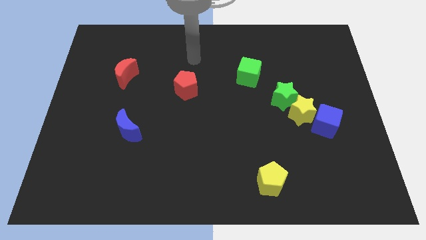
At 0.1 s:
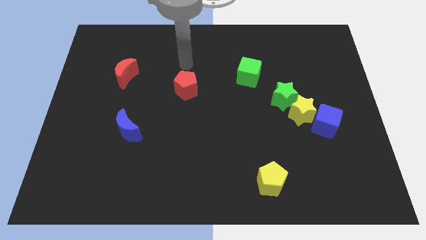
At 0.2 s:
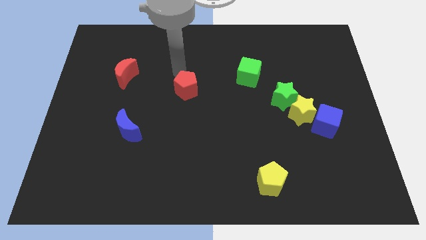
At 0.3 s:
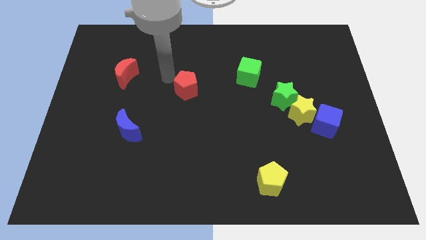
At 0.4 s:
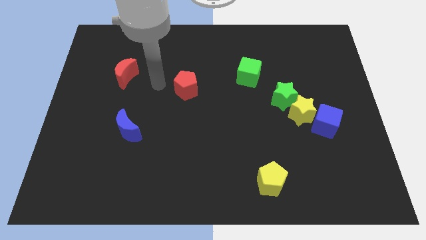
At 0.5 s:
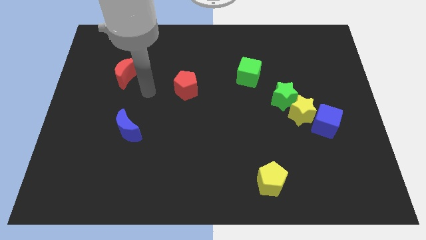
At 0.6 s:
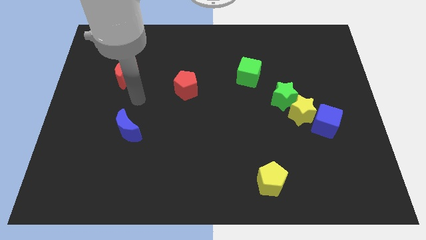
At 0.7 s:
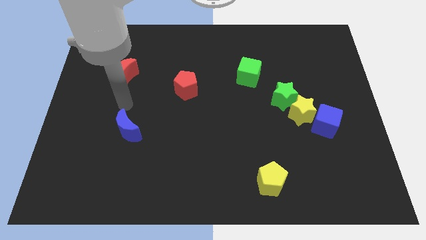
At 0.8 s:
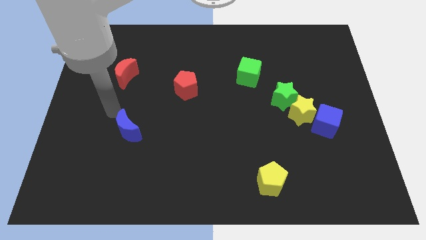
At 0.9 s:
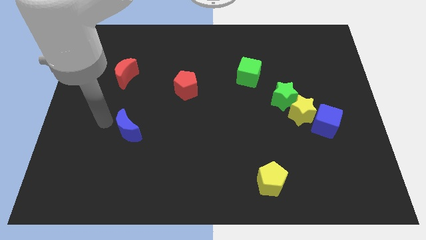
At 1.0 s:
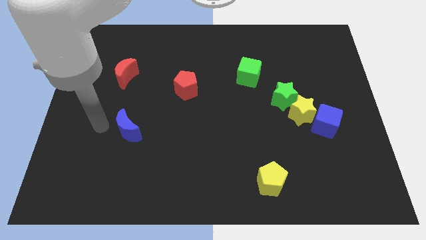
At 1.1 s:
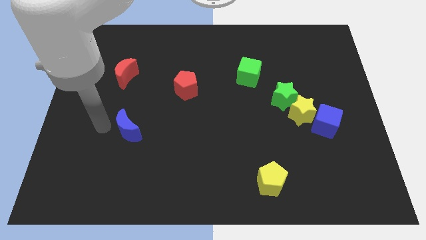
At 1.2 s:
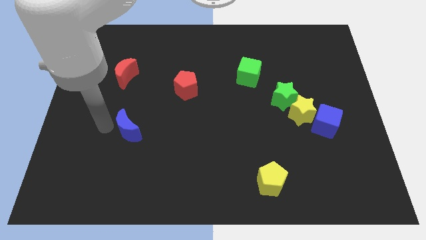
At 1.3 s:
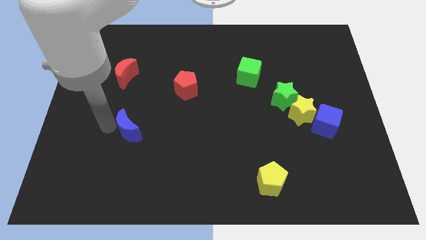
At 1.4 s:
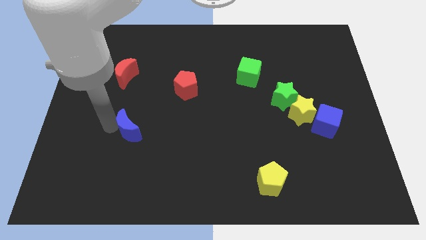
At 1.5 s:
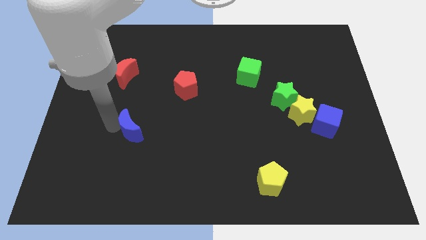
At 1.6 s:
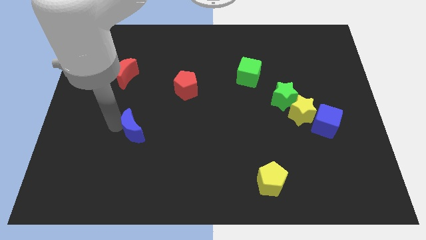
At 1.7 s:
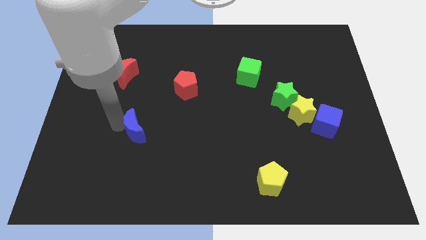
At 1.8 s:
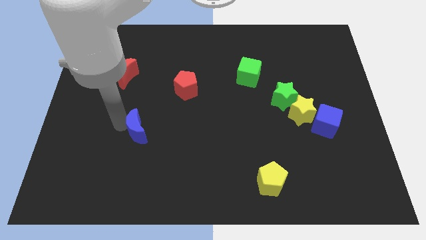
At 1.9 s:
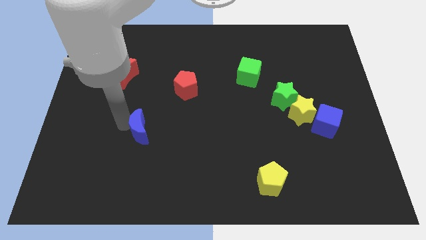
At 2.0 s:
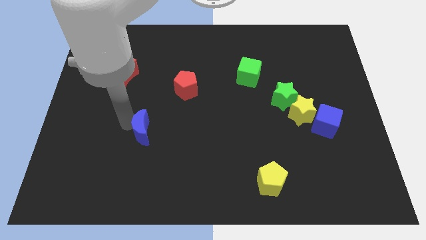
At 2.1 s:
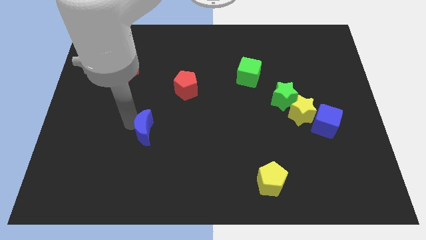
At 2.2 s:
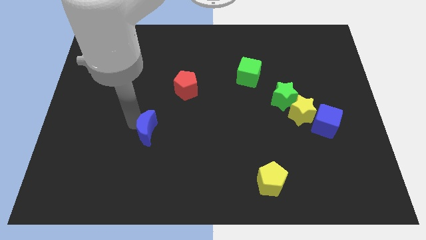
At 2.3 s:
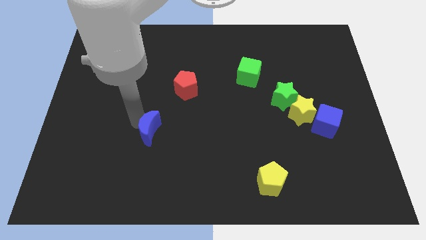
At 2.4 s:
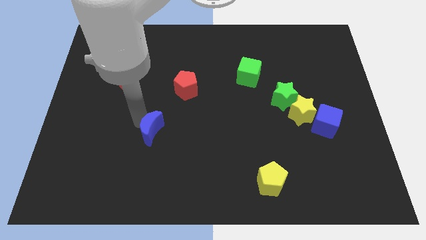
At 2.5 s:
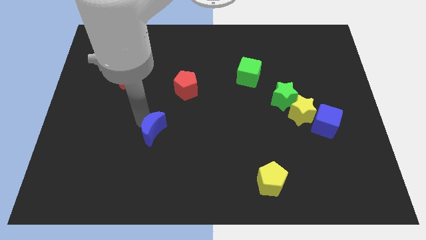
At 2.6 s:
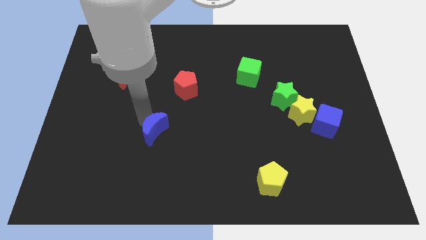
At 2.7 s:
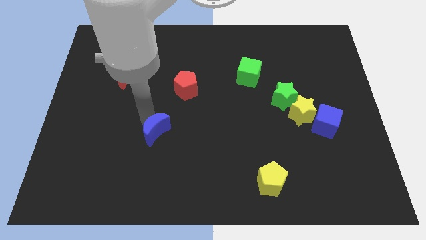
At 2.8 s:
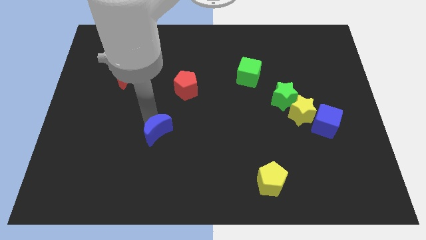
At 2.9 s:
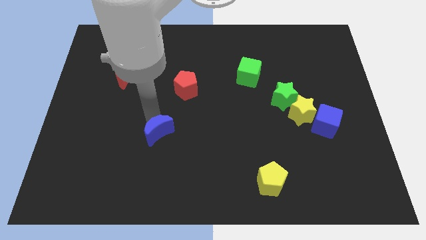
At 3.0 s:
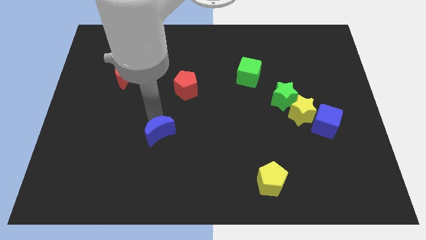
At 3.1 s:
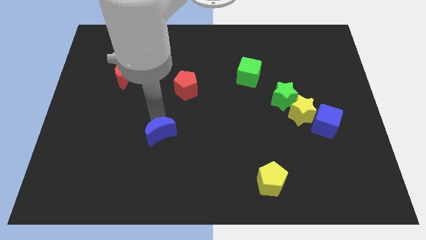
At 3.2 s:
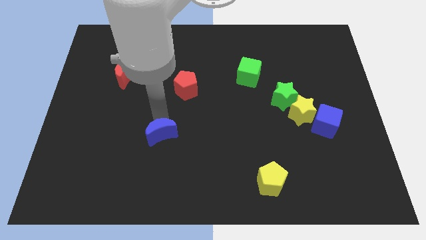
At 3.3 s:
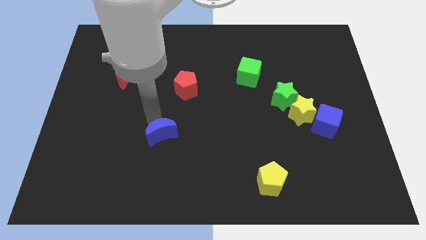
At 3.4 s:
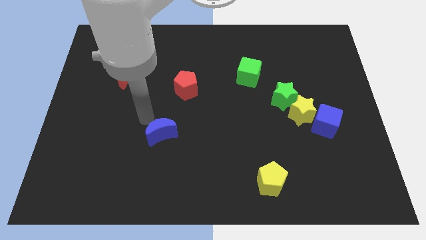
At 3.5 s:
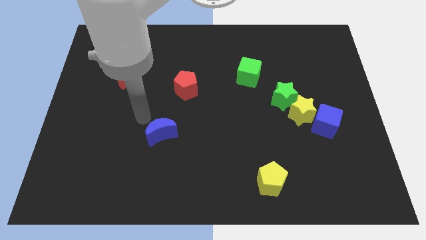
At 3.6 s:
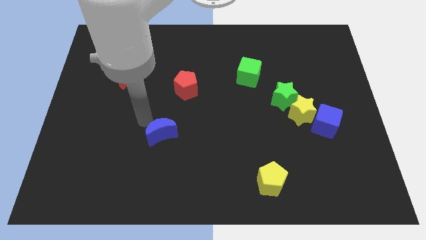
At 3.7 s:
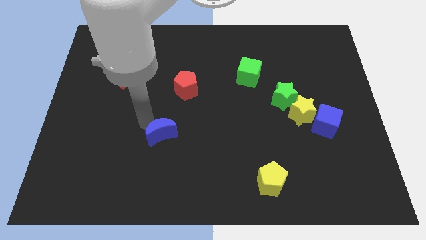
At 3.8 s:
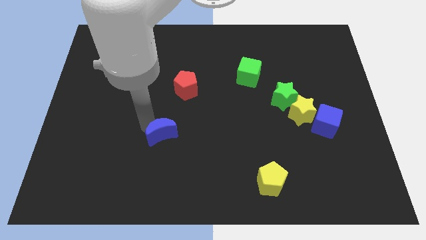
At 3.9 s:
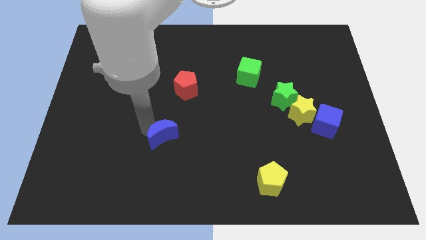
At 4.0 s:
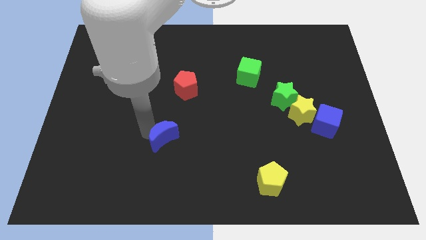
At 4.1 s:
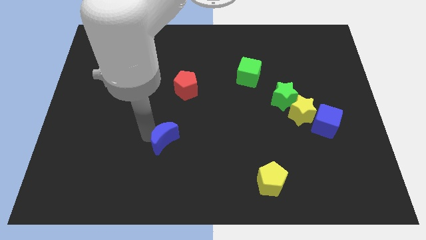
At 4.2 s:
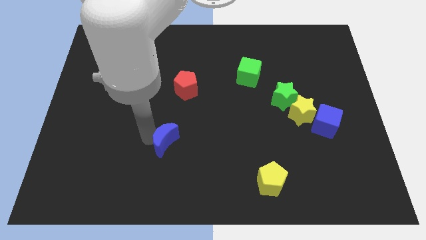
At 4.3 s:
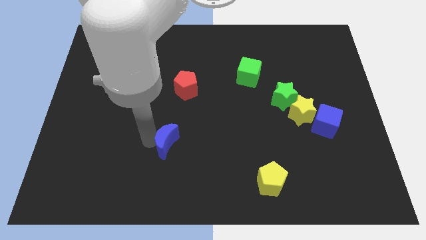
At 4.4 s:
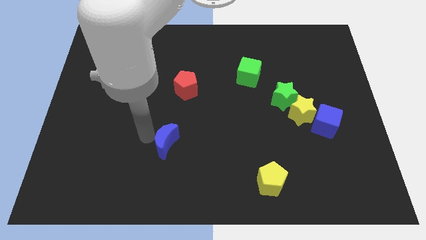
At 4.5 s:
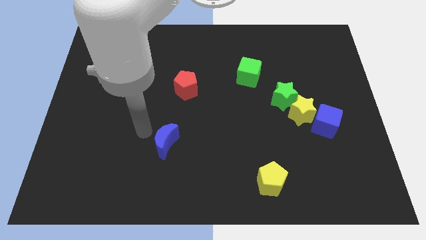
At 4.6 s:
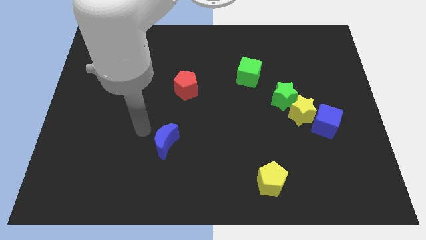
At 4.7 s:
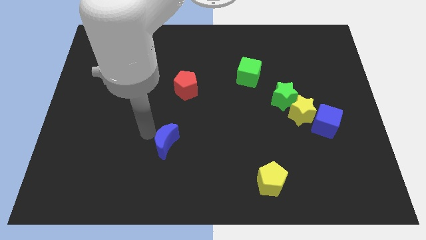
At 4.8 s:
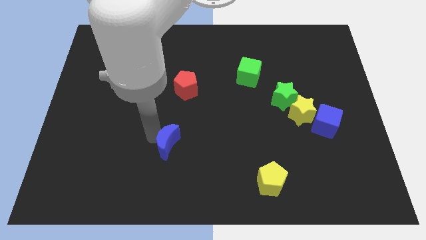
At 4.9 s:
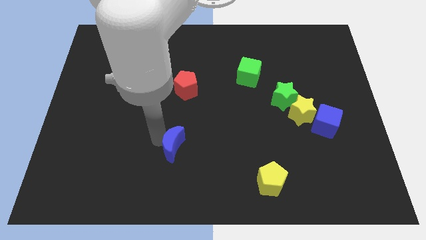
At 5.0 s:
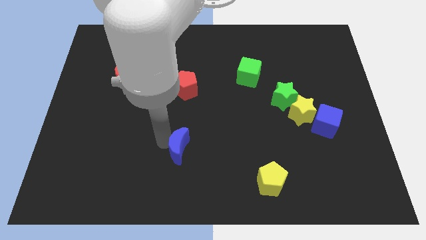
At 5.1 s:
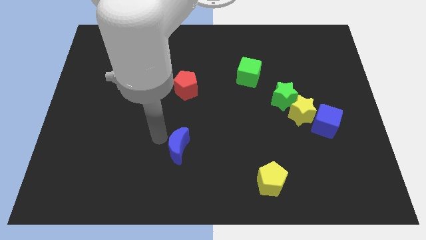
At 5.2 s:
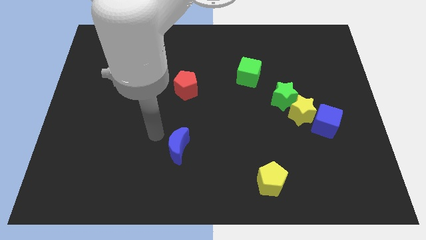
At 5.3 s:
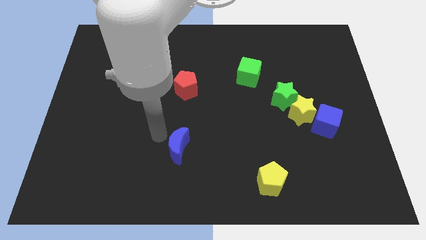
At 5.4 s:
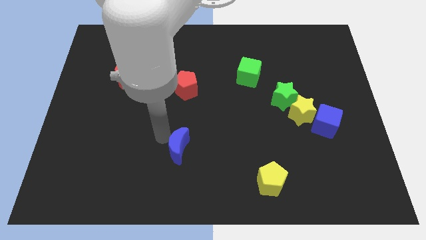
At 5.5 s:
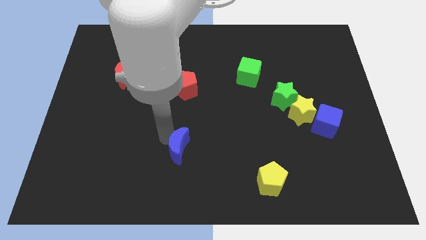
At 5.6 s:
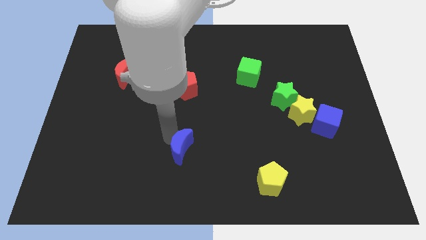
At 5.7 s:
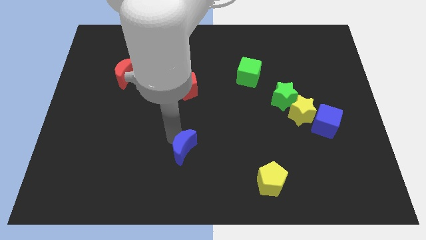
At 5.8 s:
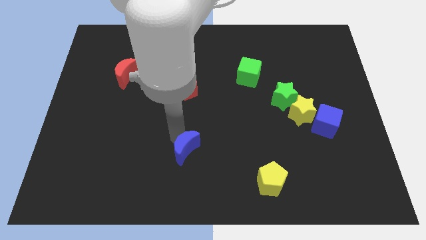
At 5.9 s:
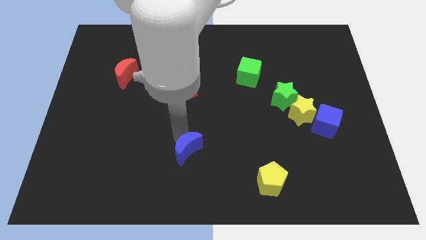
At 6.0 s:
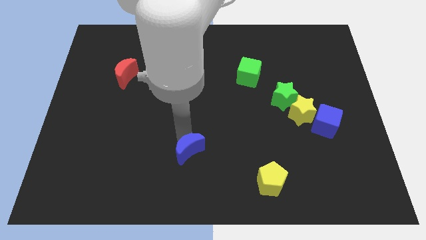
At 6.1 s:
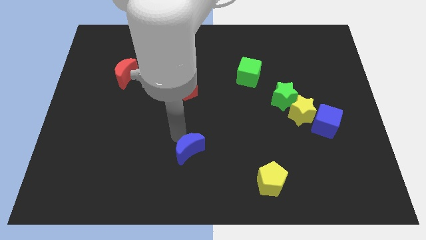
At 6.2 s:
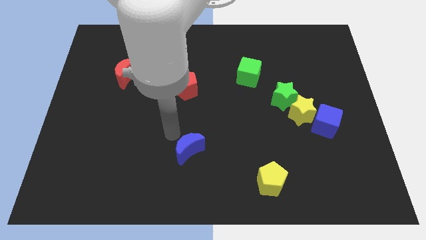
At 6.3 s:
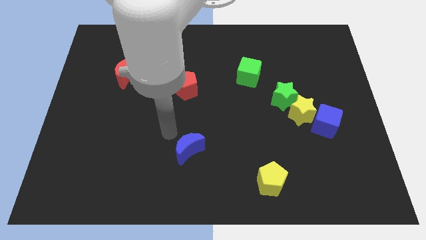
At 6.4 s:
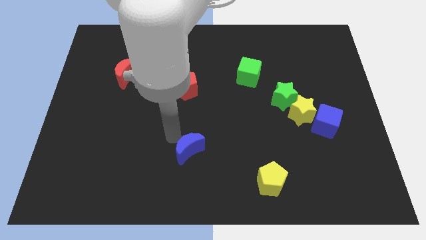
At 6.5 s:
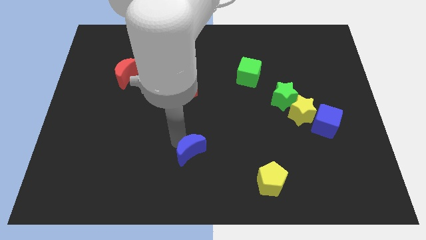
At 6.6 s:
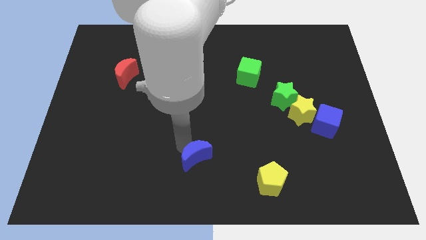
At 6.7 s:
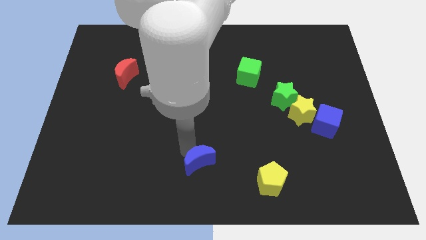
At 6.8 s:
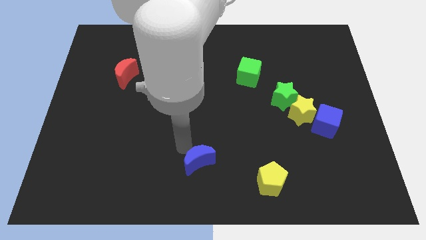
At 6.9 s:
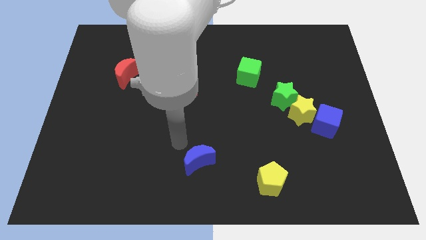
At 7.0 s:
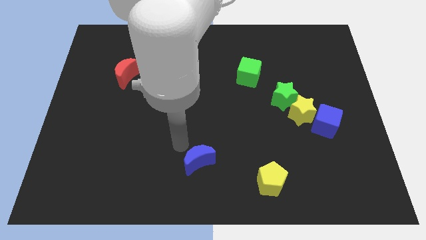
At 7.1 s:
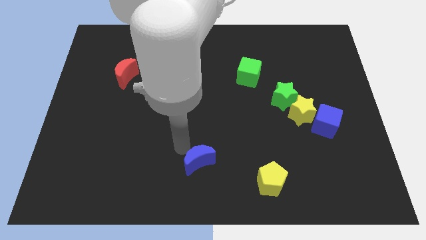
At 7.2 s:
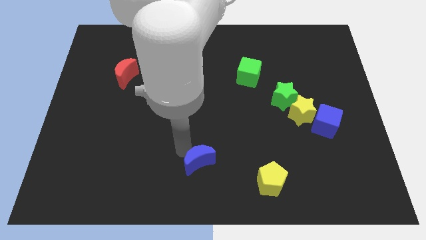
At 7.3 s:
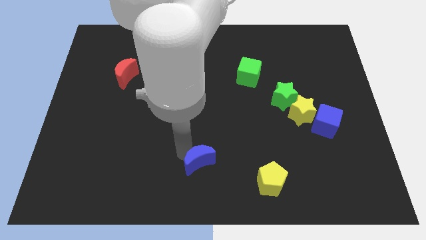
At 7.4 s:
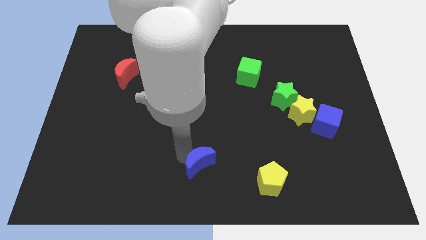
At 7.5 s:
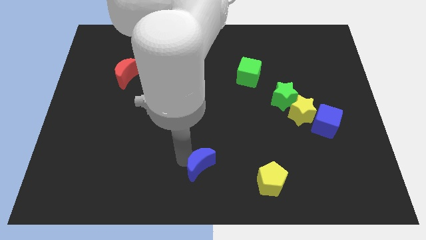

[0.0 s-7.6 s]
move the blue moon left of the yellow pentagon
